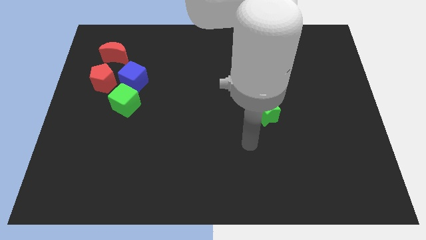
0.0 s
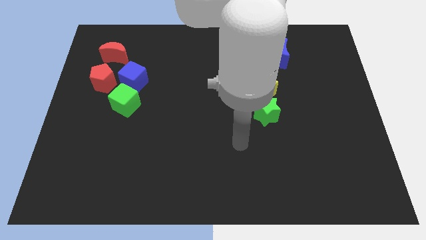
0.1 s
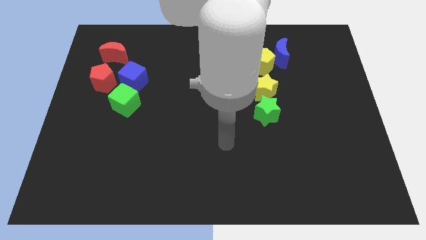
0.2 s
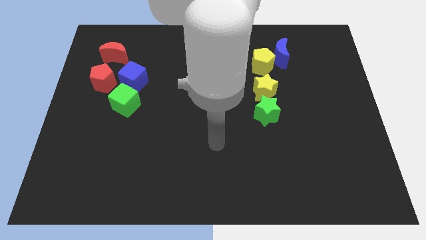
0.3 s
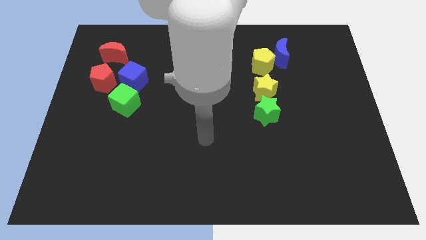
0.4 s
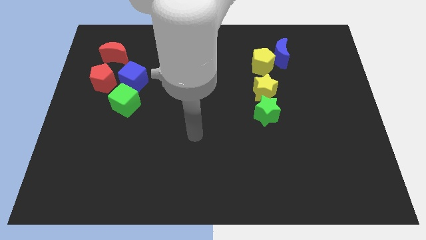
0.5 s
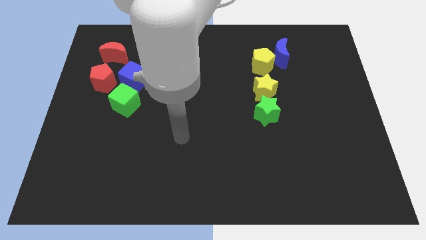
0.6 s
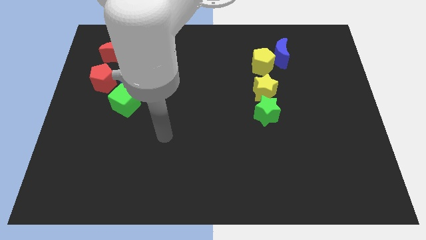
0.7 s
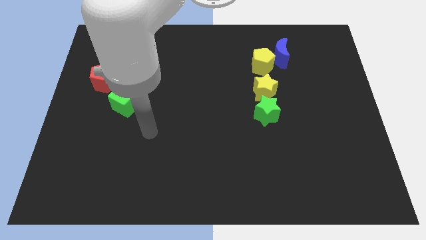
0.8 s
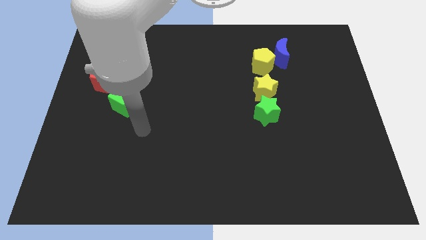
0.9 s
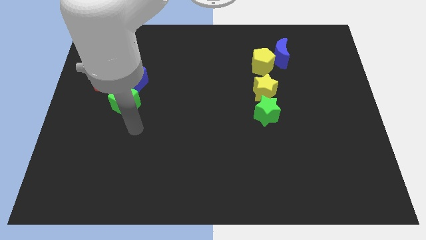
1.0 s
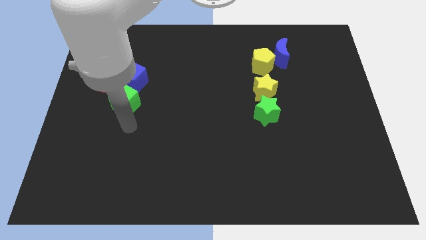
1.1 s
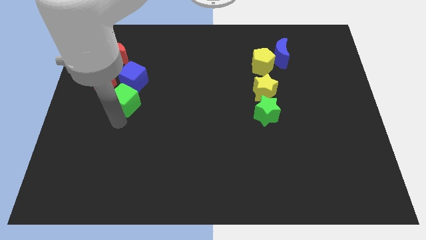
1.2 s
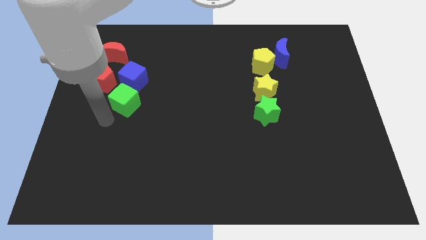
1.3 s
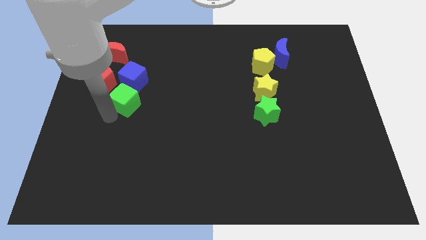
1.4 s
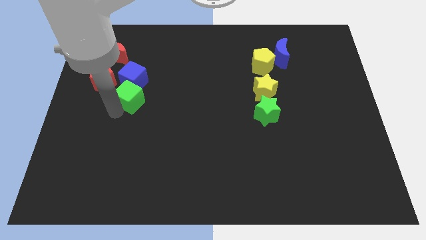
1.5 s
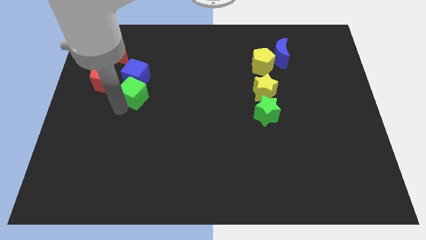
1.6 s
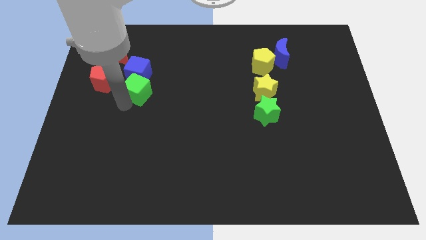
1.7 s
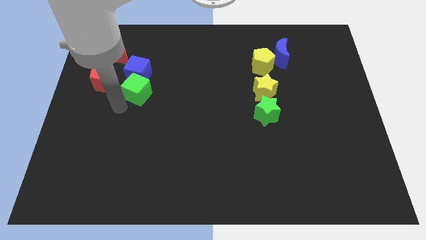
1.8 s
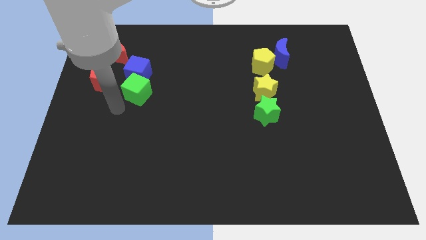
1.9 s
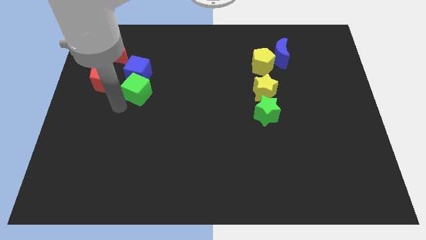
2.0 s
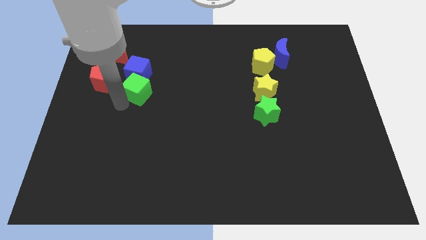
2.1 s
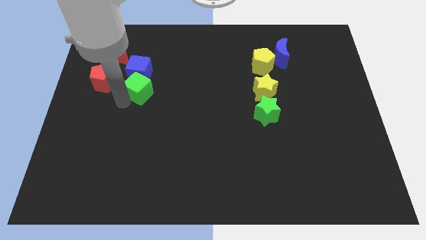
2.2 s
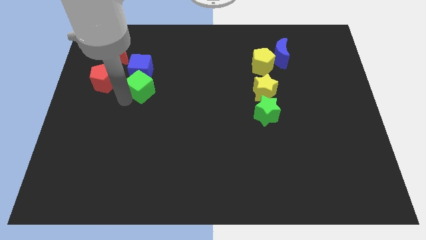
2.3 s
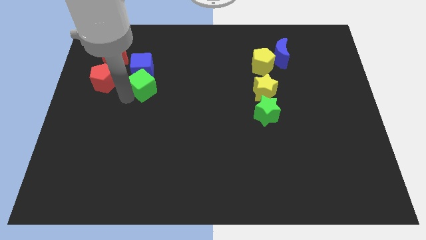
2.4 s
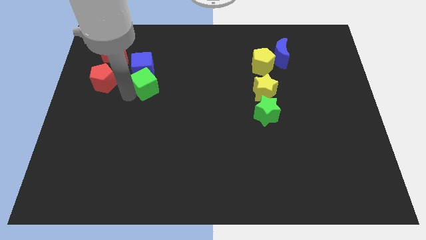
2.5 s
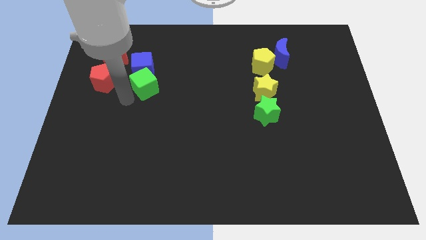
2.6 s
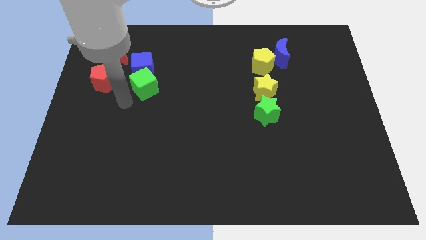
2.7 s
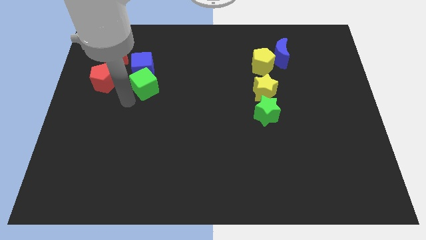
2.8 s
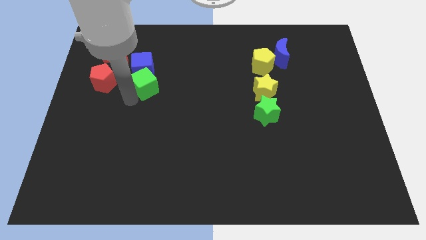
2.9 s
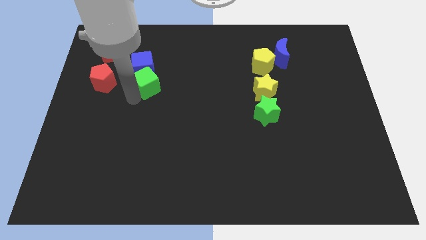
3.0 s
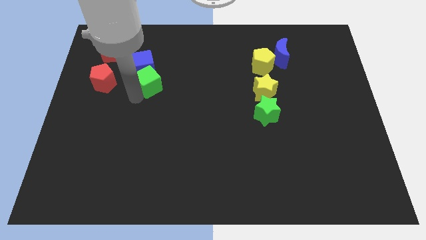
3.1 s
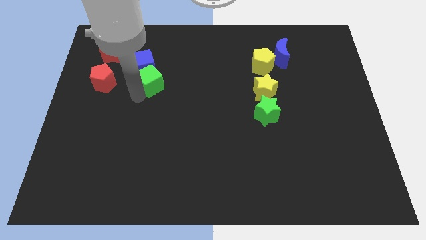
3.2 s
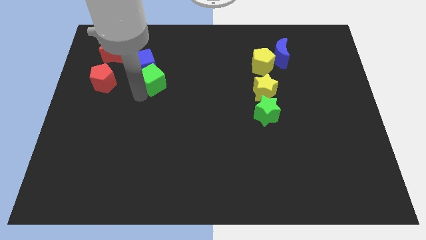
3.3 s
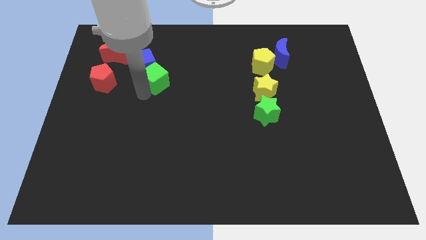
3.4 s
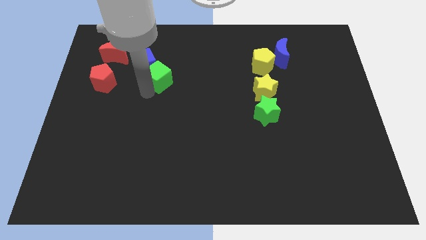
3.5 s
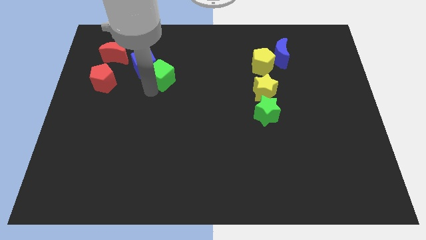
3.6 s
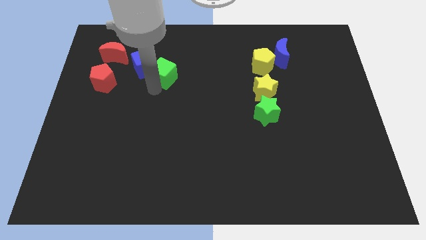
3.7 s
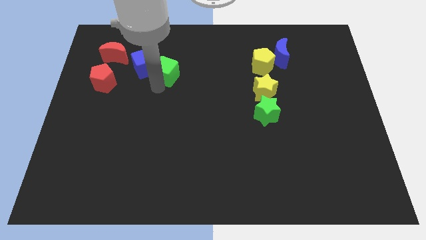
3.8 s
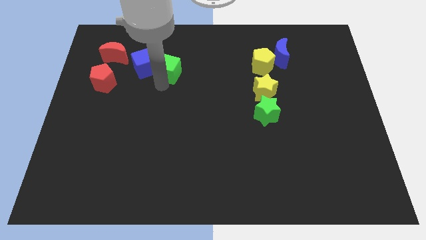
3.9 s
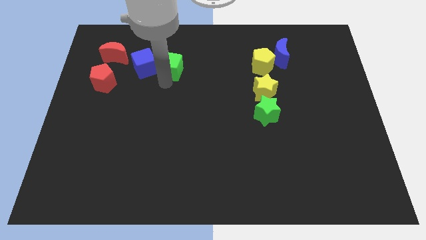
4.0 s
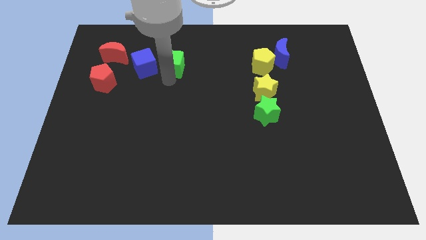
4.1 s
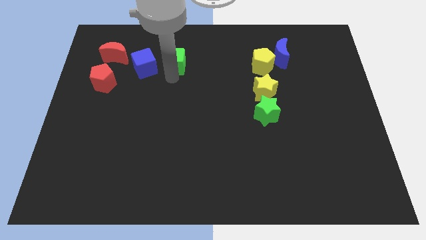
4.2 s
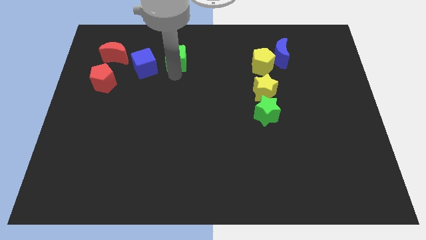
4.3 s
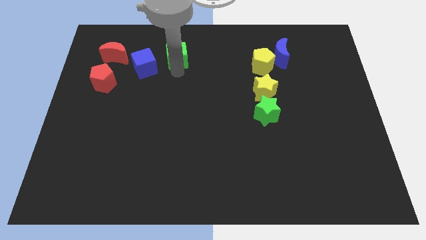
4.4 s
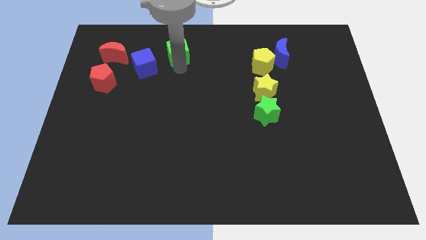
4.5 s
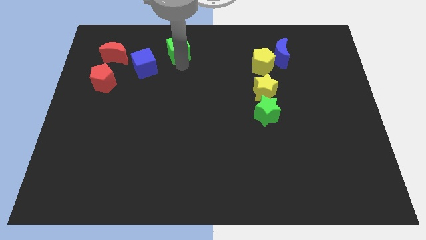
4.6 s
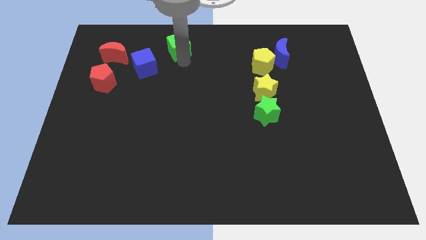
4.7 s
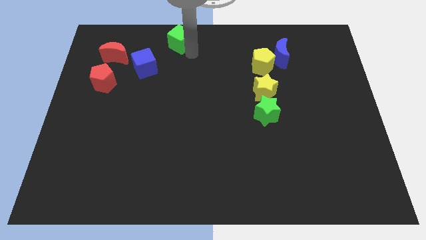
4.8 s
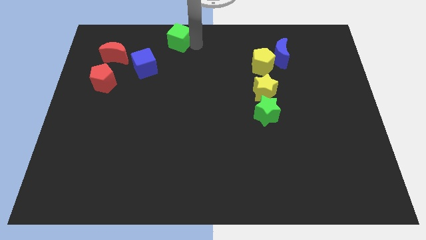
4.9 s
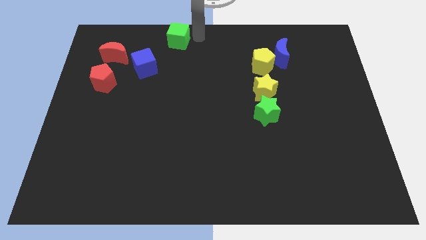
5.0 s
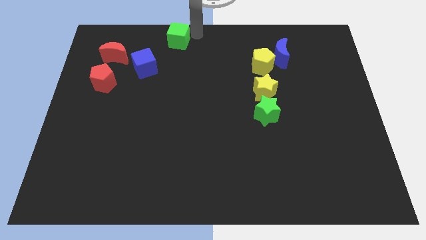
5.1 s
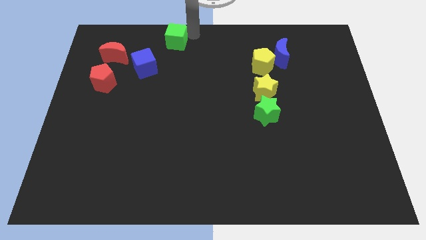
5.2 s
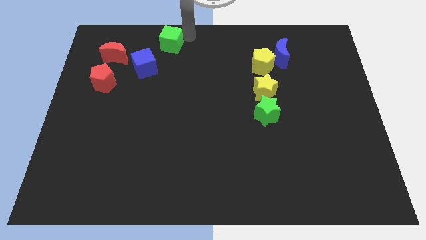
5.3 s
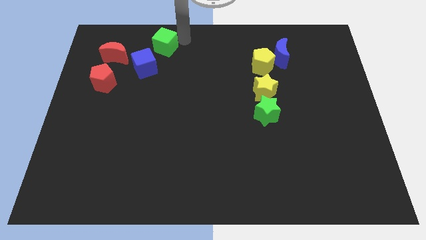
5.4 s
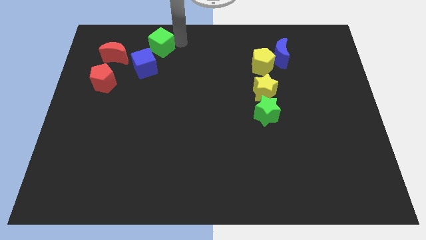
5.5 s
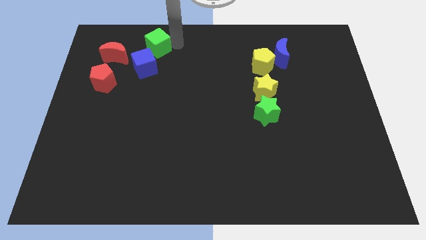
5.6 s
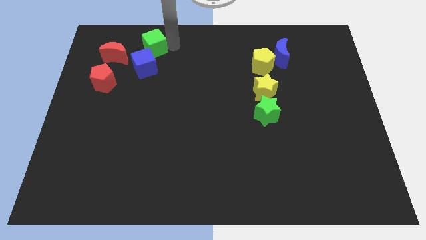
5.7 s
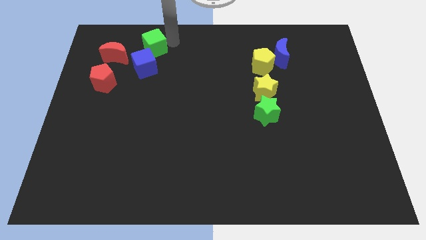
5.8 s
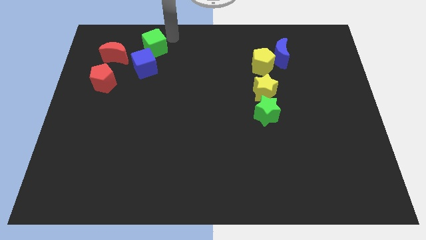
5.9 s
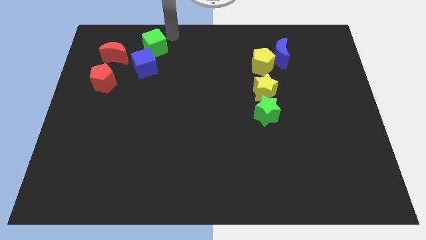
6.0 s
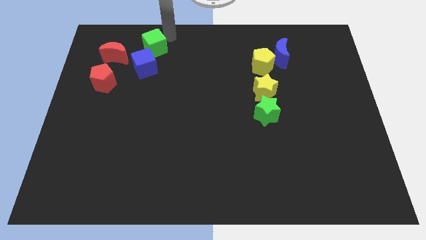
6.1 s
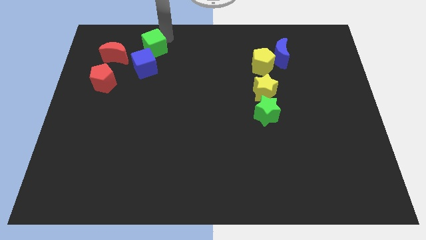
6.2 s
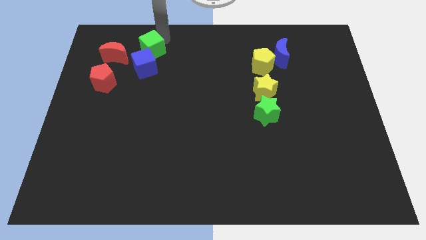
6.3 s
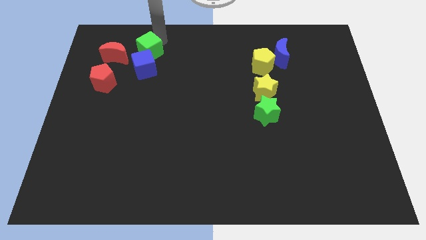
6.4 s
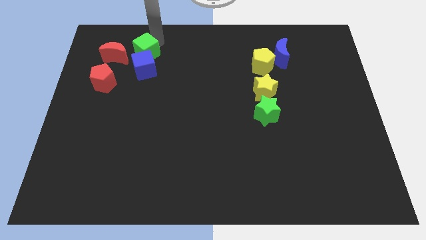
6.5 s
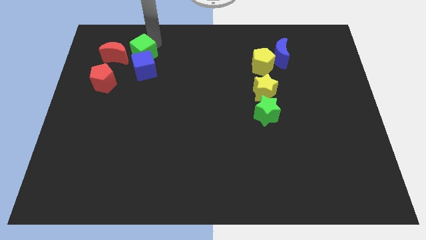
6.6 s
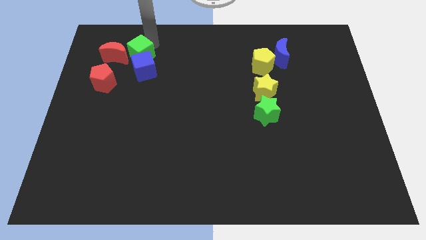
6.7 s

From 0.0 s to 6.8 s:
push the green cube to the top right of the red pentagon

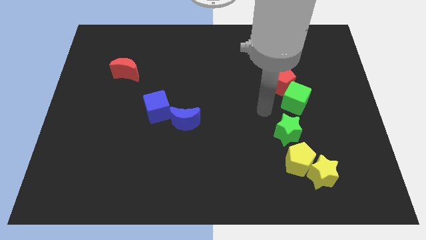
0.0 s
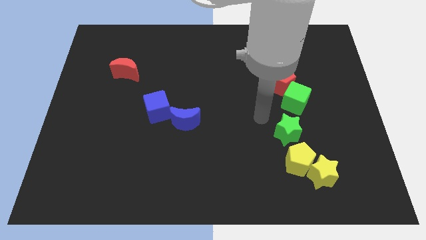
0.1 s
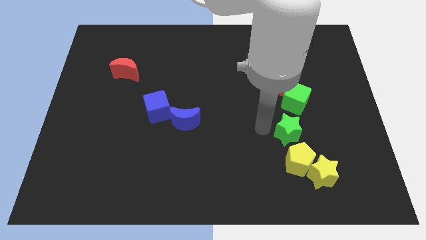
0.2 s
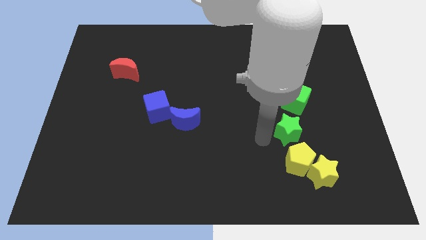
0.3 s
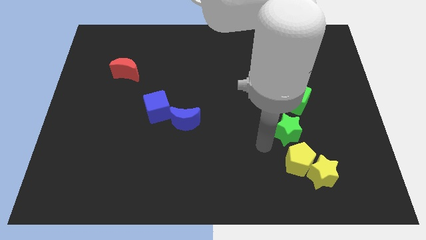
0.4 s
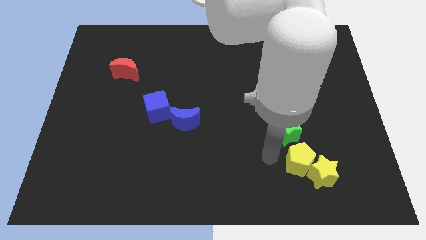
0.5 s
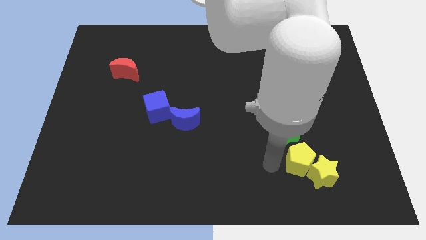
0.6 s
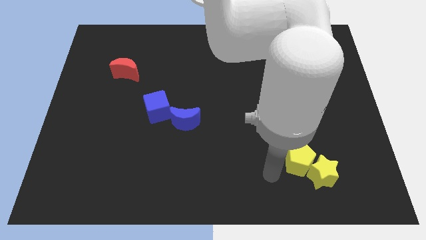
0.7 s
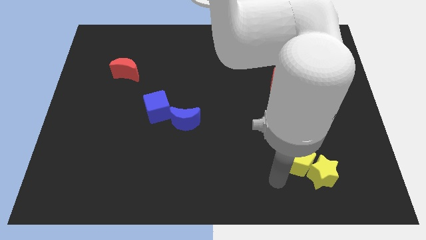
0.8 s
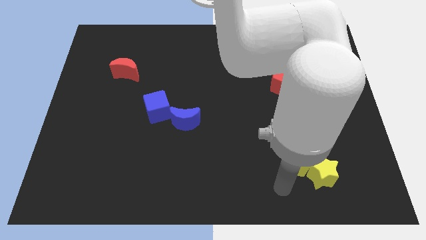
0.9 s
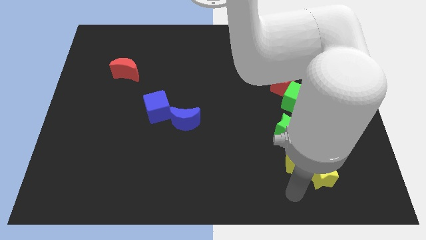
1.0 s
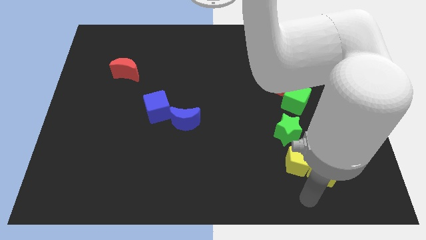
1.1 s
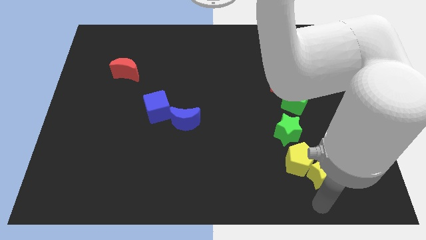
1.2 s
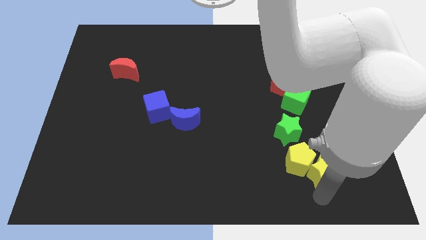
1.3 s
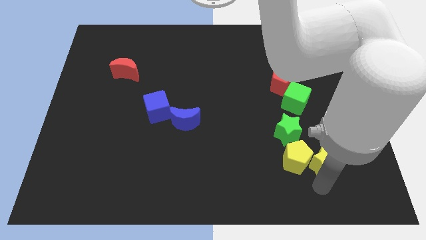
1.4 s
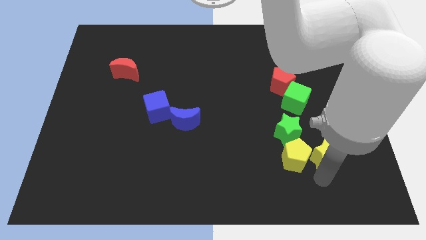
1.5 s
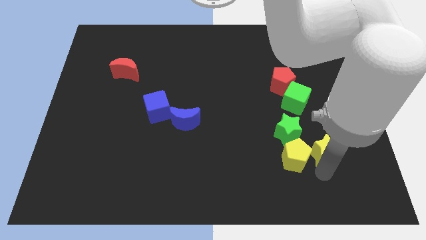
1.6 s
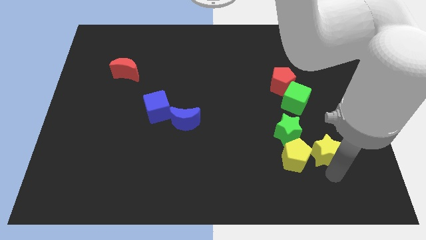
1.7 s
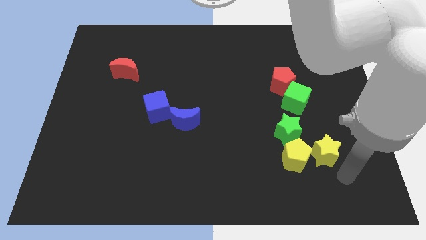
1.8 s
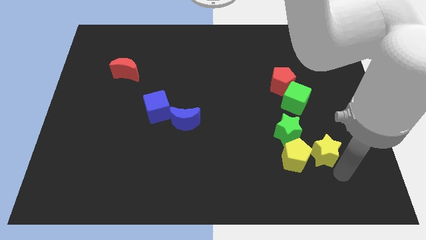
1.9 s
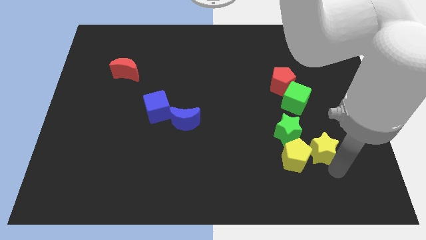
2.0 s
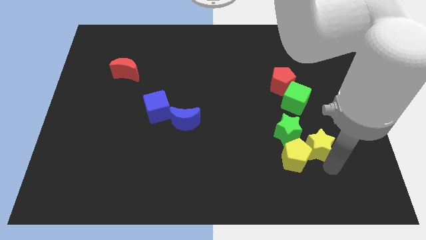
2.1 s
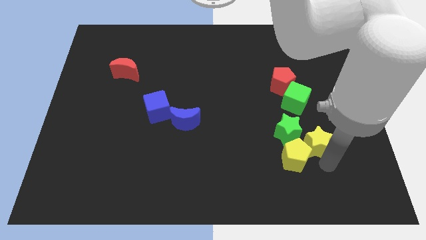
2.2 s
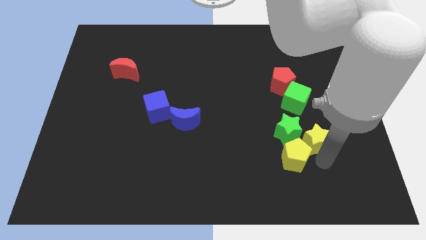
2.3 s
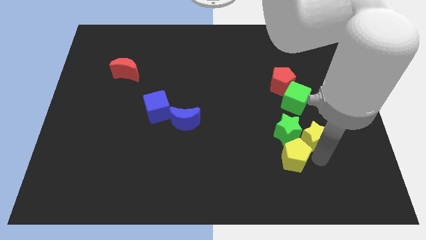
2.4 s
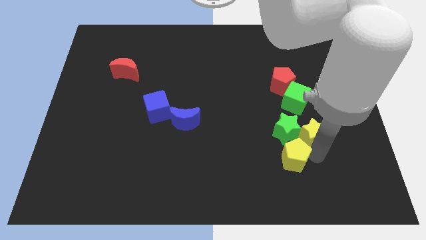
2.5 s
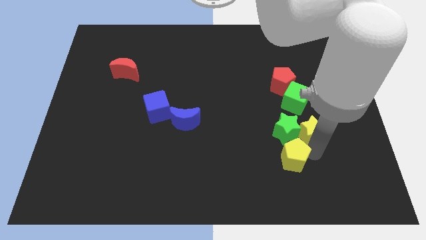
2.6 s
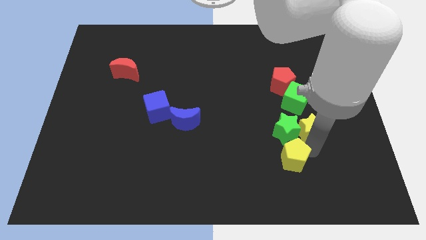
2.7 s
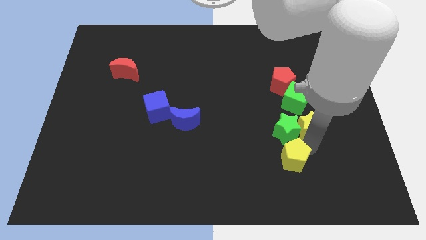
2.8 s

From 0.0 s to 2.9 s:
put the yellow star below the red pentagon
